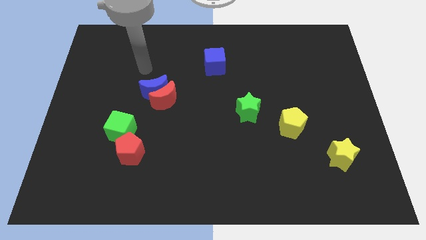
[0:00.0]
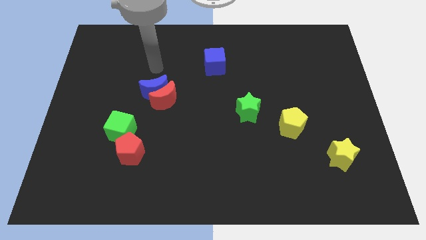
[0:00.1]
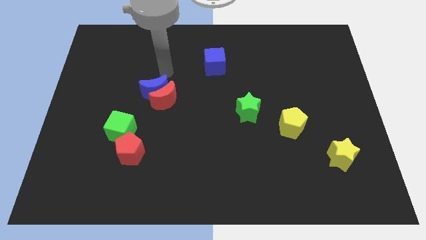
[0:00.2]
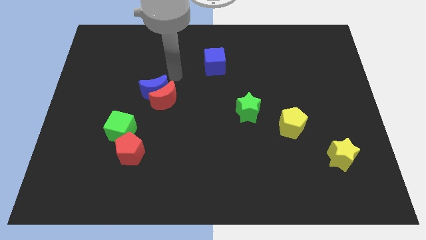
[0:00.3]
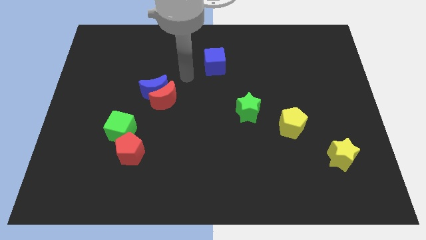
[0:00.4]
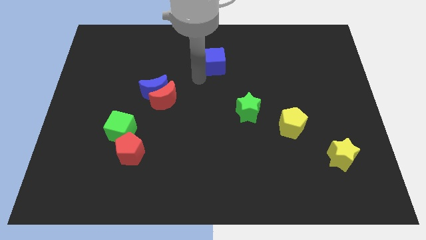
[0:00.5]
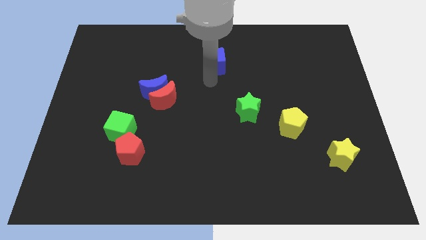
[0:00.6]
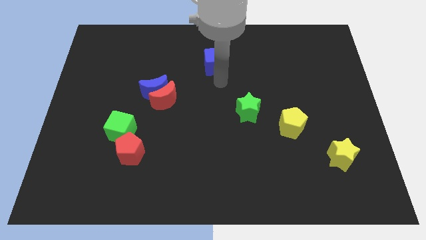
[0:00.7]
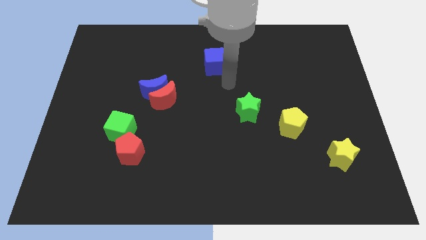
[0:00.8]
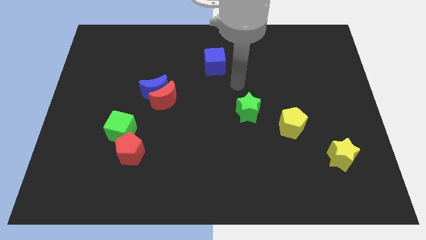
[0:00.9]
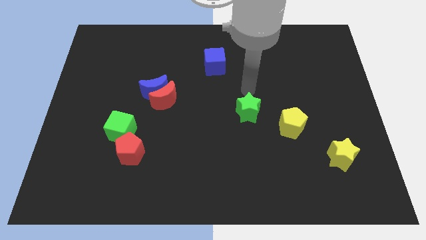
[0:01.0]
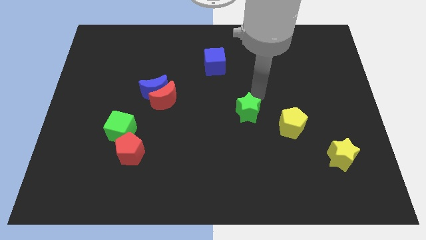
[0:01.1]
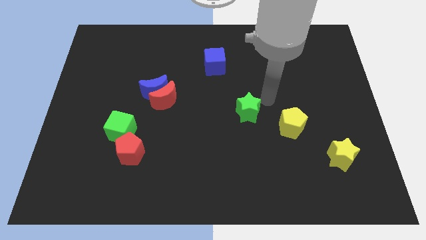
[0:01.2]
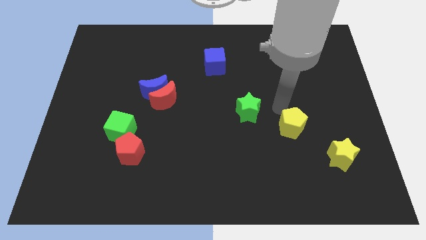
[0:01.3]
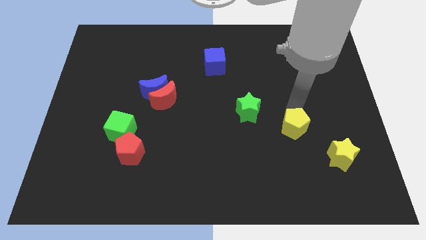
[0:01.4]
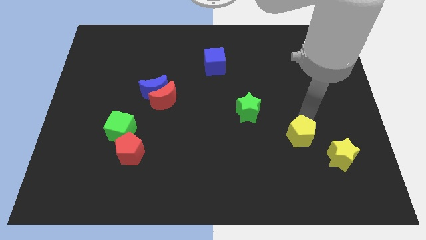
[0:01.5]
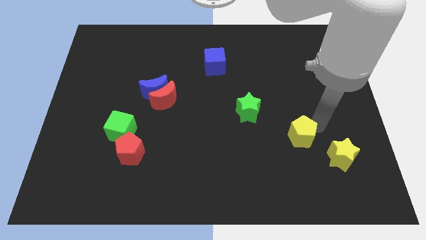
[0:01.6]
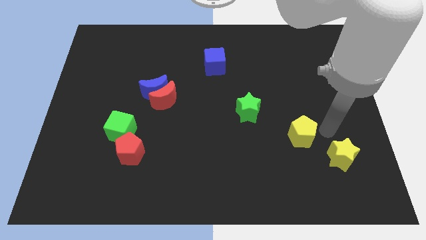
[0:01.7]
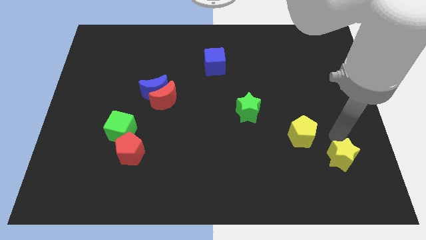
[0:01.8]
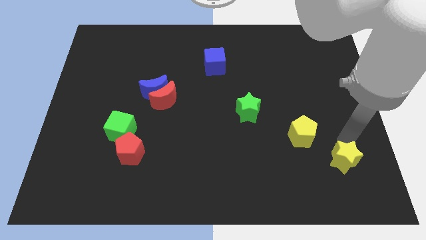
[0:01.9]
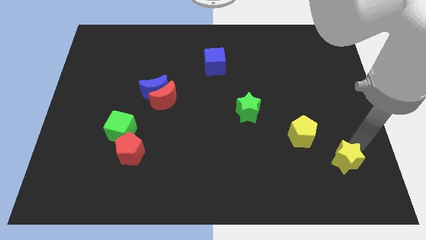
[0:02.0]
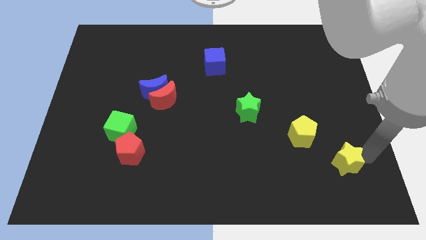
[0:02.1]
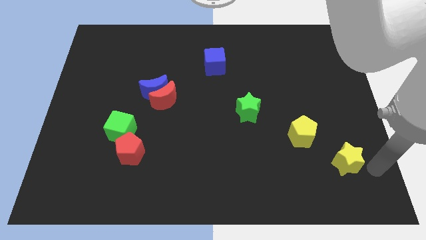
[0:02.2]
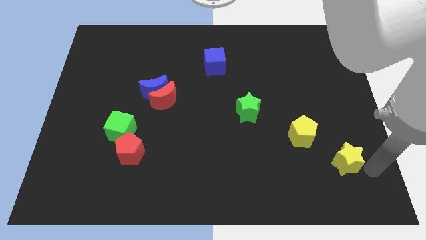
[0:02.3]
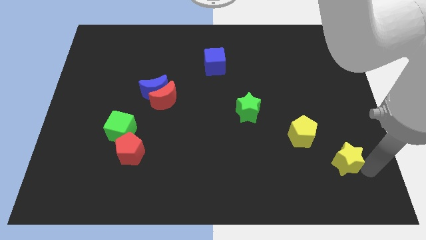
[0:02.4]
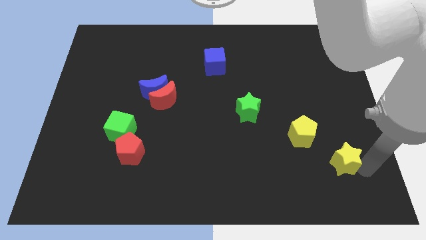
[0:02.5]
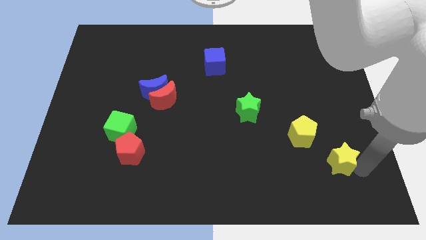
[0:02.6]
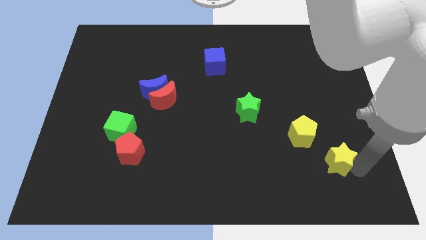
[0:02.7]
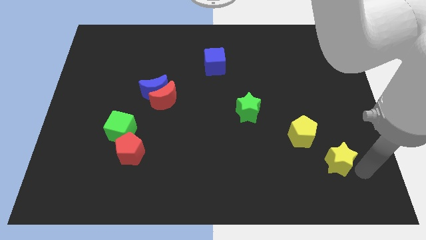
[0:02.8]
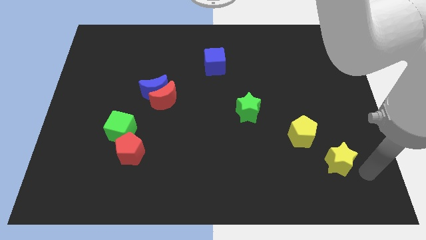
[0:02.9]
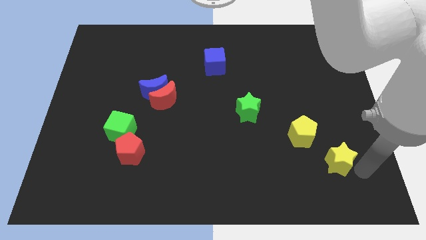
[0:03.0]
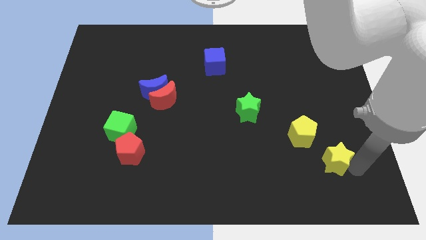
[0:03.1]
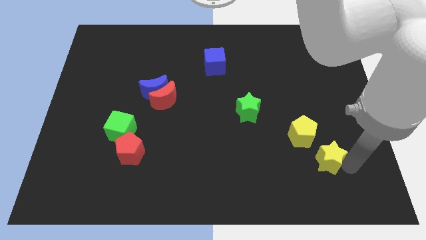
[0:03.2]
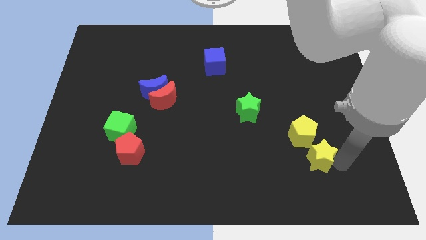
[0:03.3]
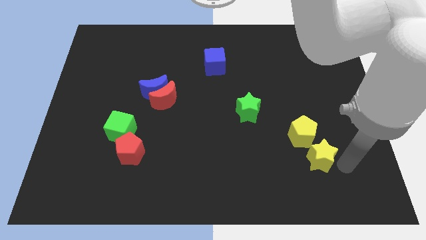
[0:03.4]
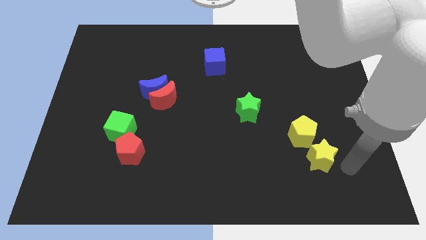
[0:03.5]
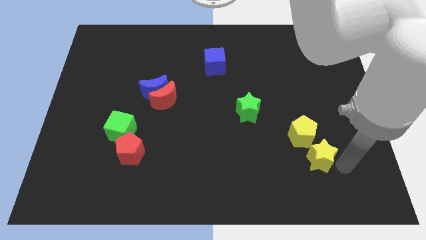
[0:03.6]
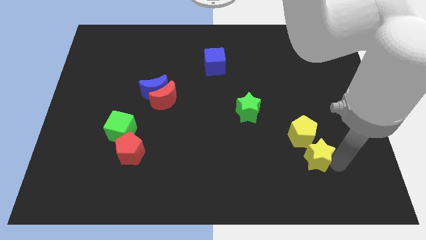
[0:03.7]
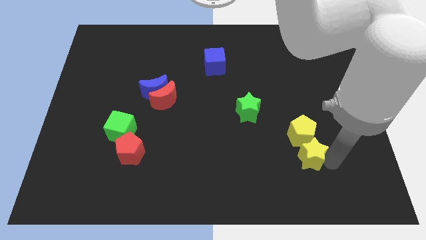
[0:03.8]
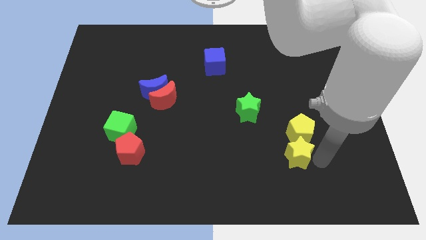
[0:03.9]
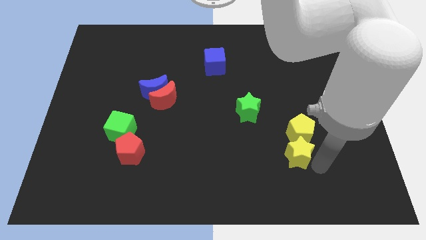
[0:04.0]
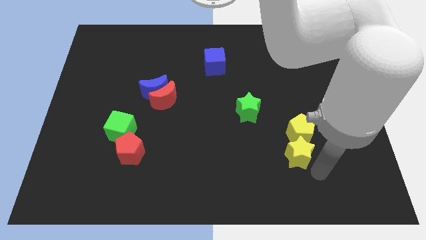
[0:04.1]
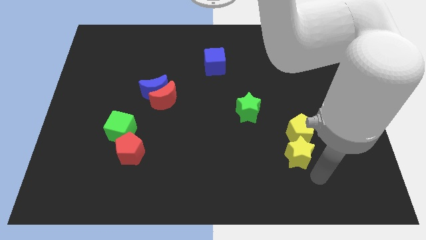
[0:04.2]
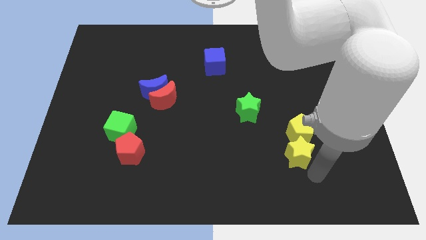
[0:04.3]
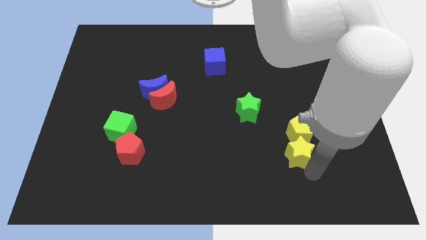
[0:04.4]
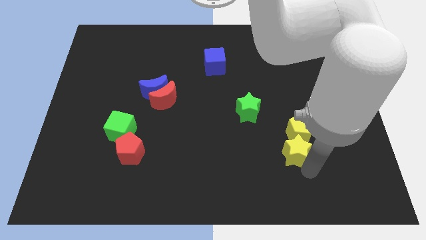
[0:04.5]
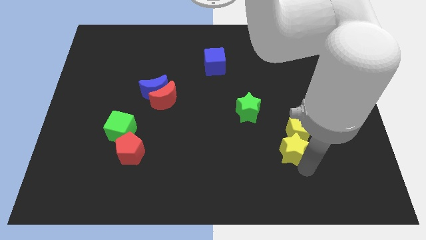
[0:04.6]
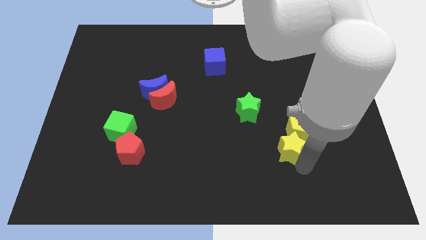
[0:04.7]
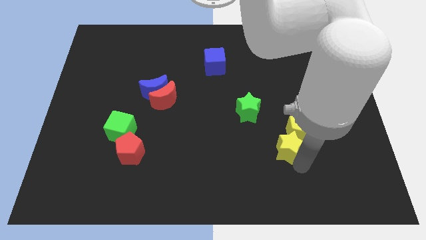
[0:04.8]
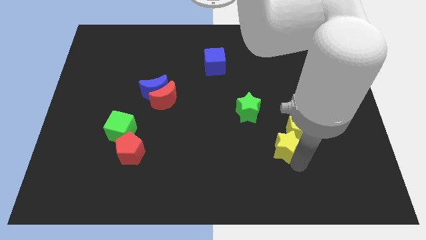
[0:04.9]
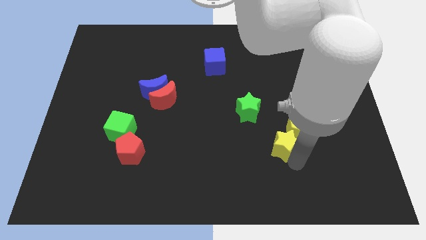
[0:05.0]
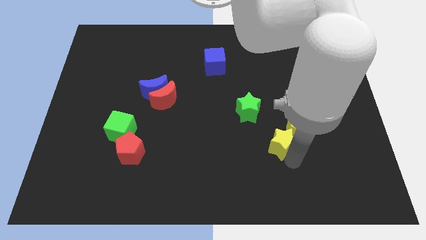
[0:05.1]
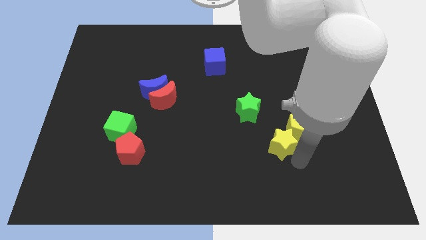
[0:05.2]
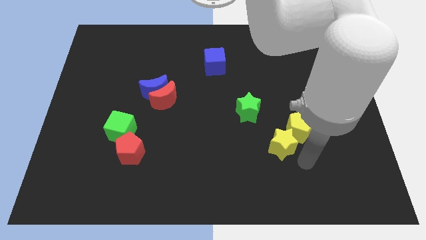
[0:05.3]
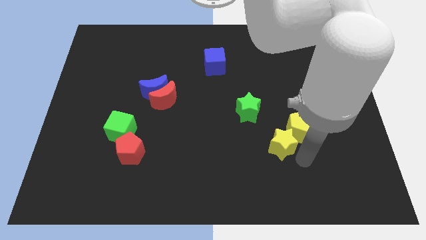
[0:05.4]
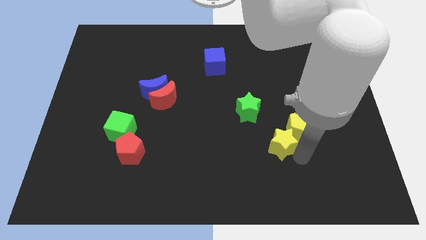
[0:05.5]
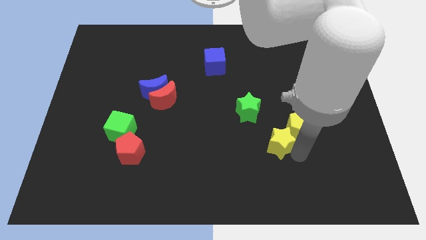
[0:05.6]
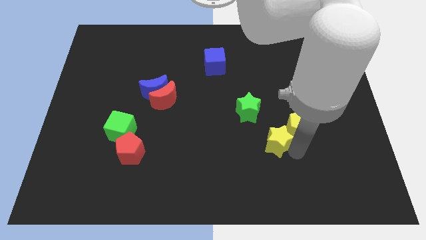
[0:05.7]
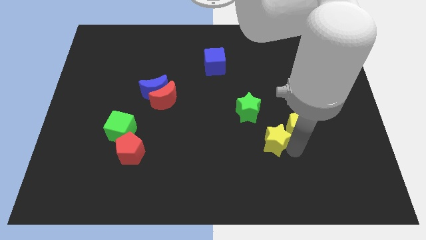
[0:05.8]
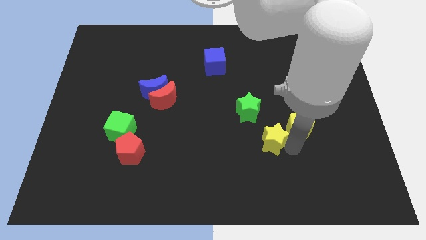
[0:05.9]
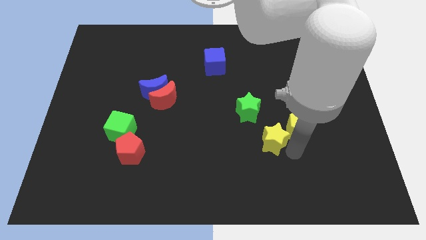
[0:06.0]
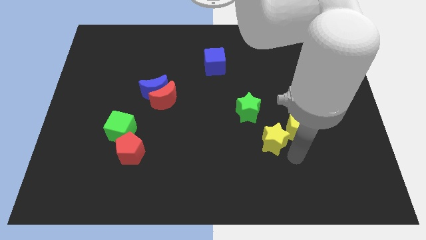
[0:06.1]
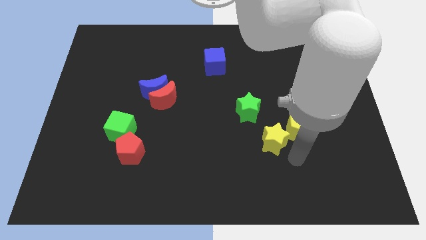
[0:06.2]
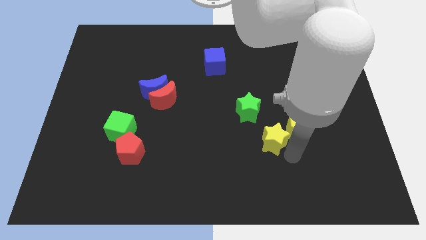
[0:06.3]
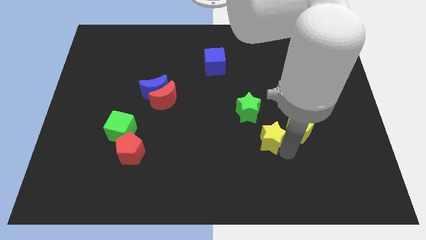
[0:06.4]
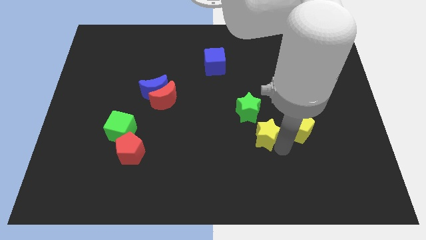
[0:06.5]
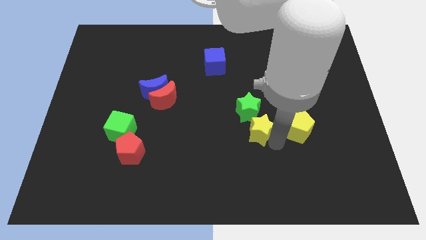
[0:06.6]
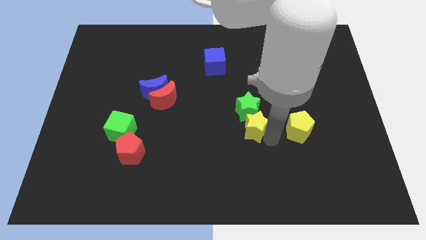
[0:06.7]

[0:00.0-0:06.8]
put the yellow star to the center of the board

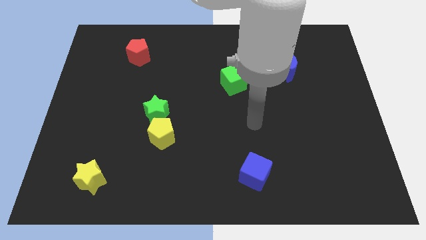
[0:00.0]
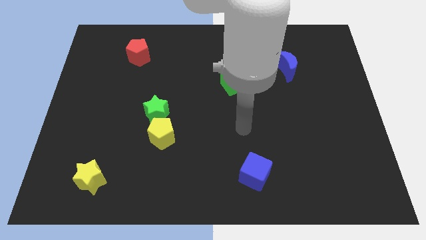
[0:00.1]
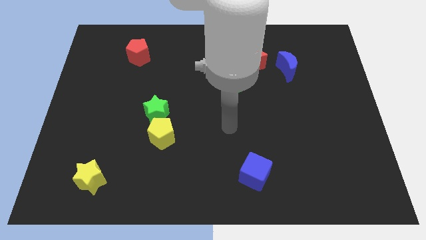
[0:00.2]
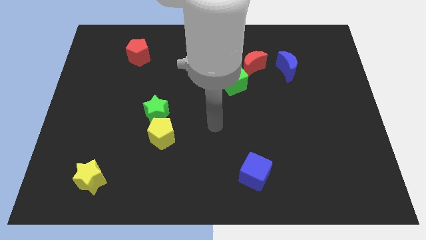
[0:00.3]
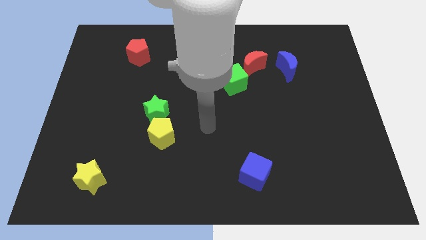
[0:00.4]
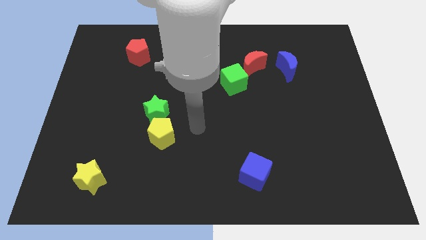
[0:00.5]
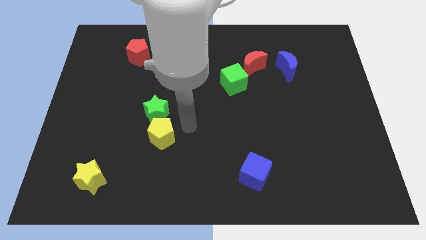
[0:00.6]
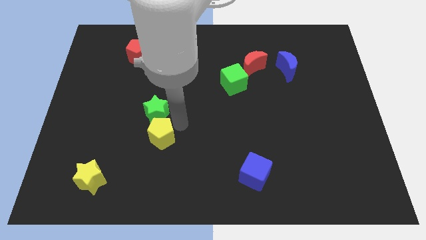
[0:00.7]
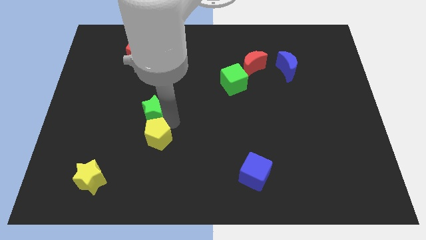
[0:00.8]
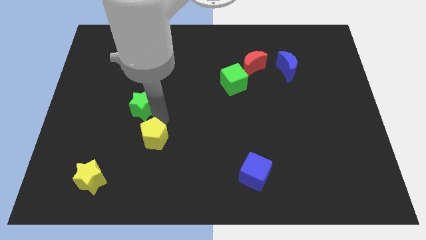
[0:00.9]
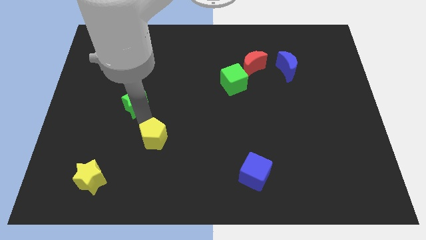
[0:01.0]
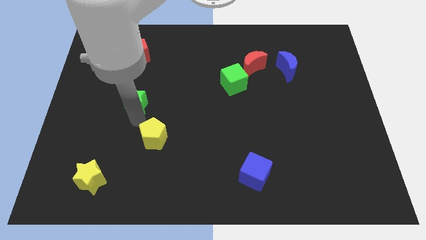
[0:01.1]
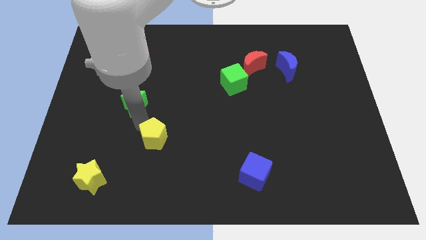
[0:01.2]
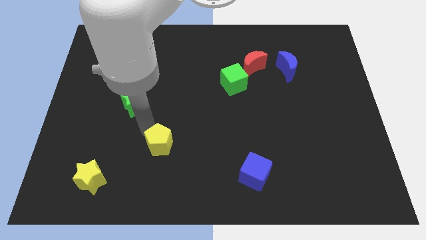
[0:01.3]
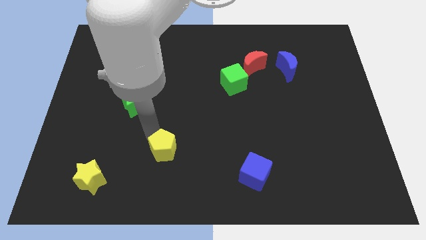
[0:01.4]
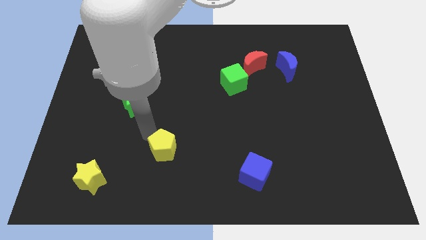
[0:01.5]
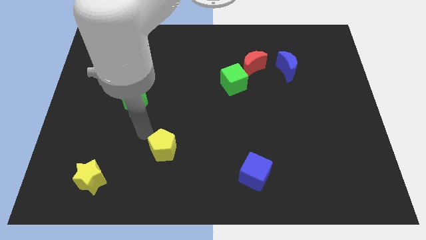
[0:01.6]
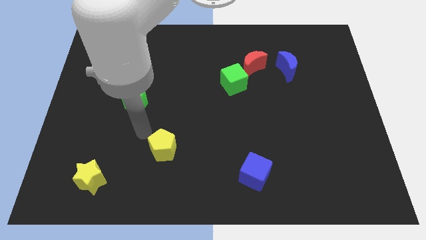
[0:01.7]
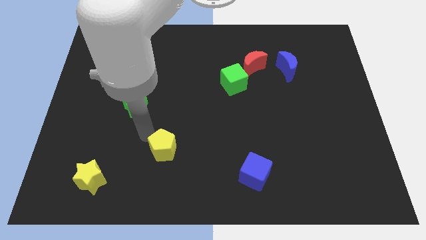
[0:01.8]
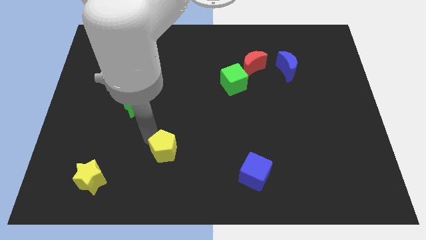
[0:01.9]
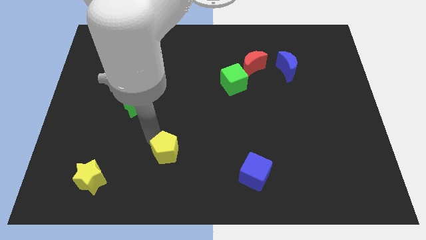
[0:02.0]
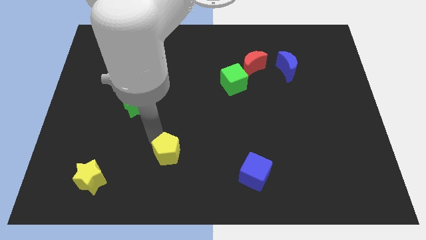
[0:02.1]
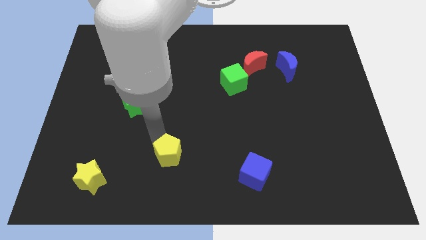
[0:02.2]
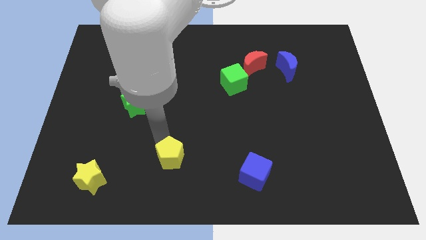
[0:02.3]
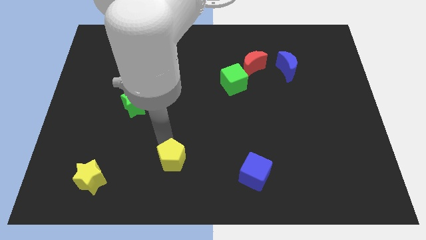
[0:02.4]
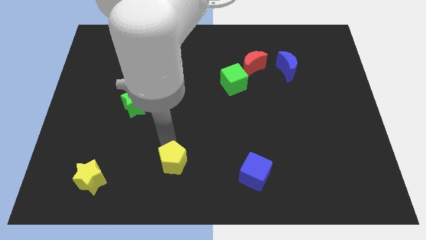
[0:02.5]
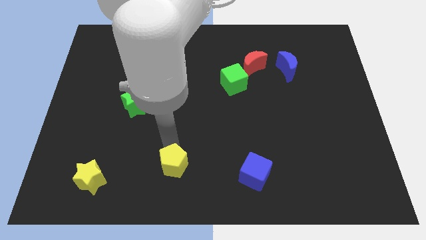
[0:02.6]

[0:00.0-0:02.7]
move the yellow pentagon to the bottom
